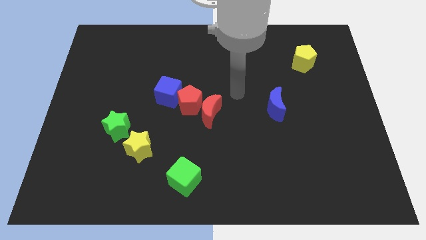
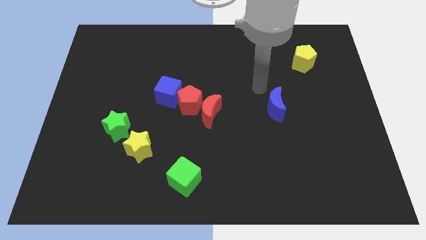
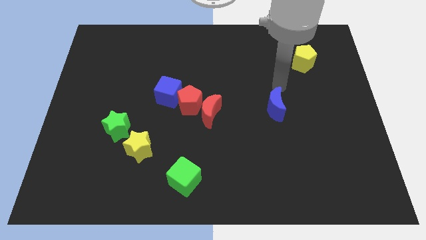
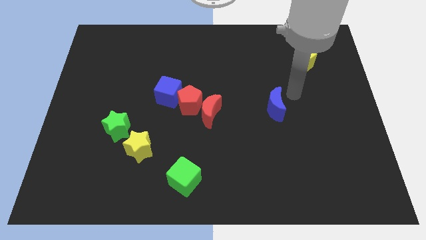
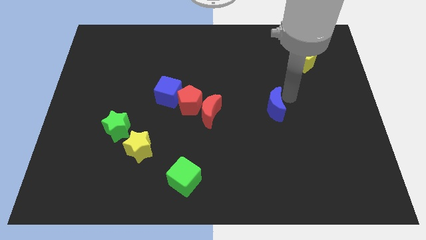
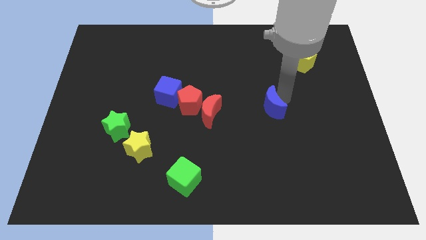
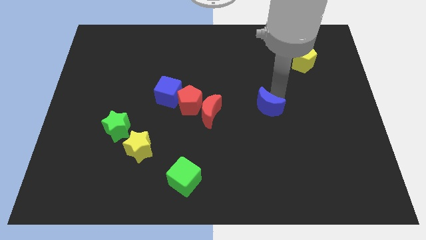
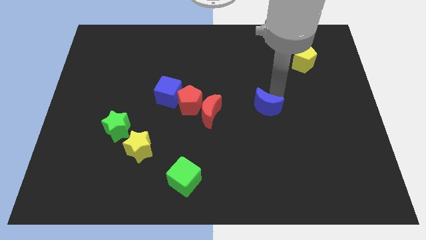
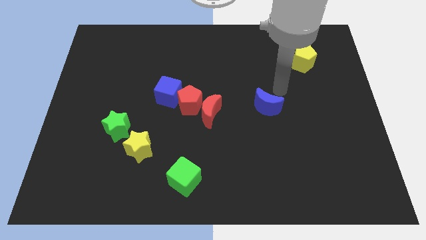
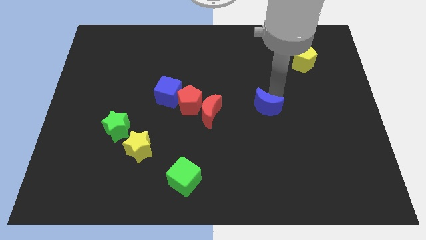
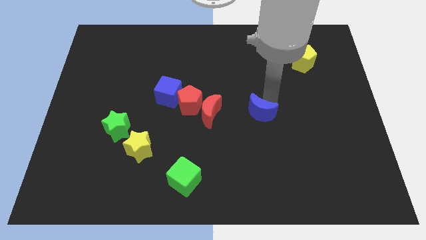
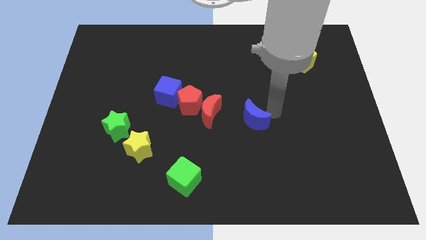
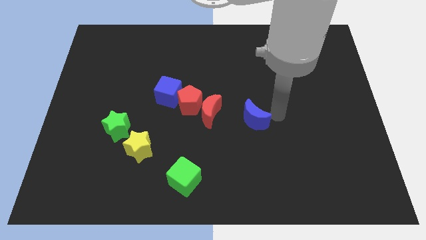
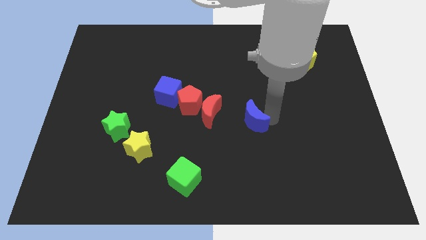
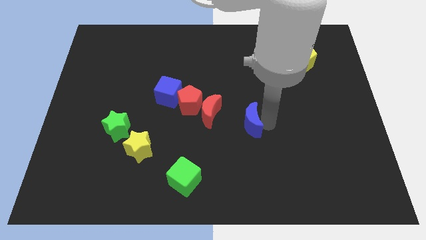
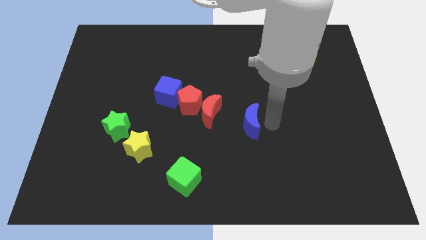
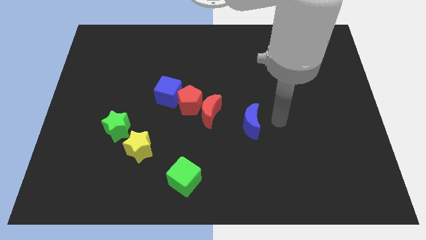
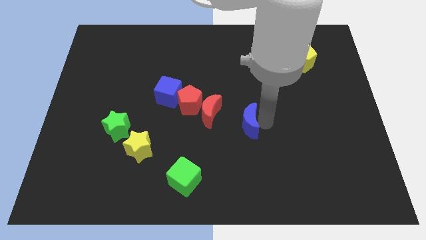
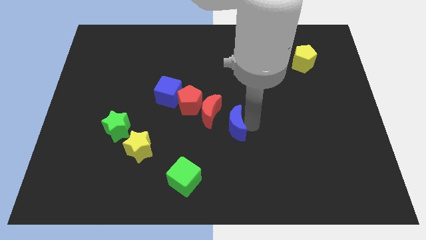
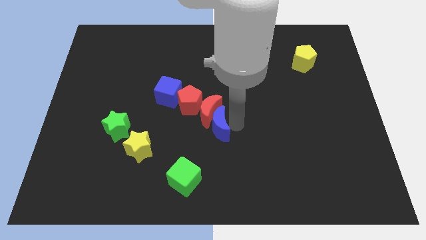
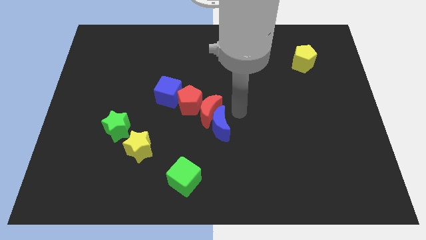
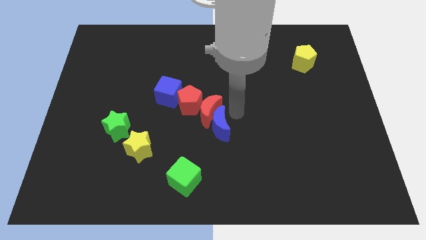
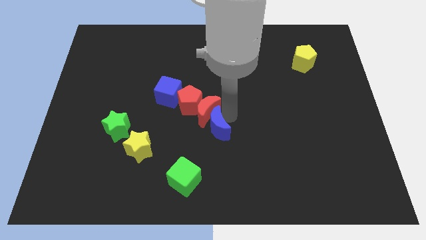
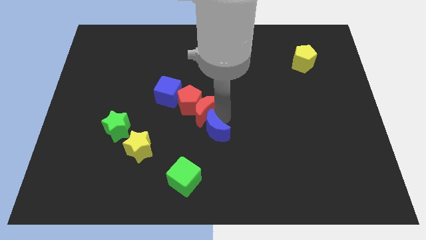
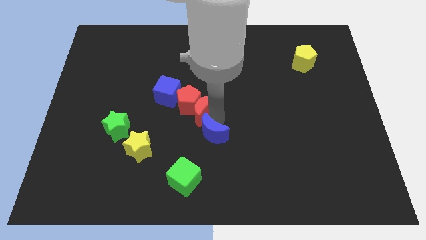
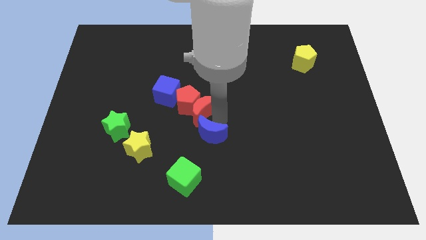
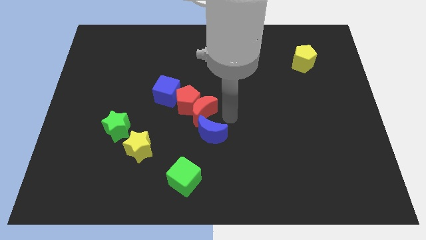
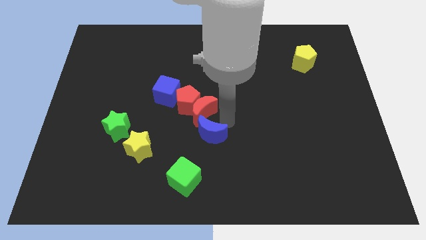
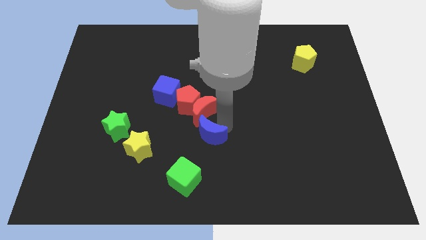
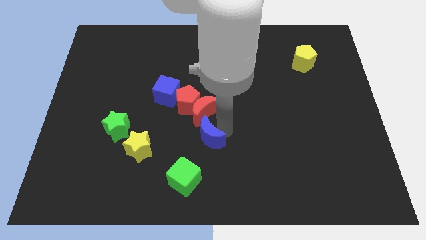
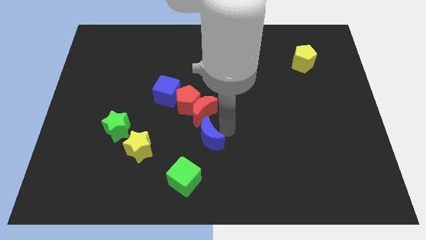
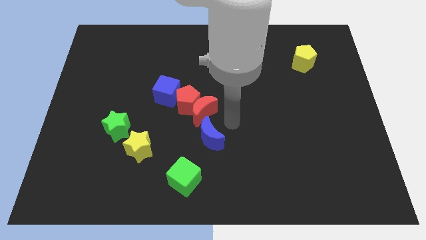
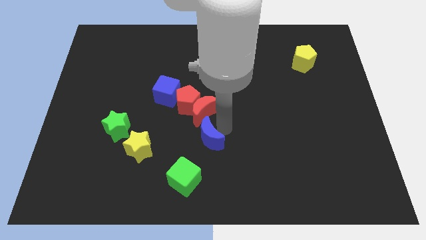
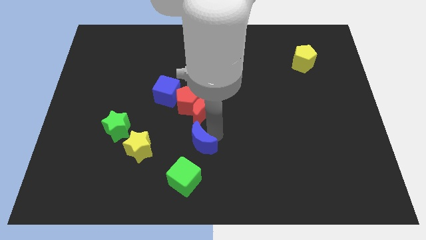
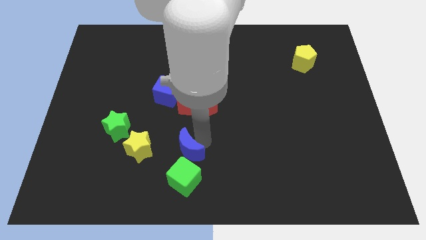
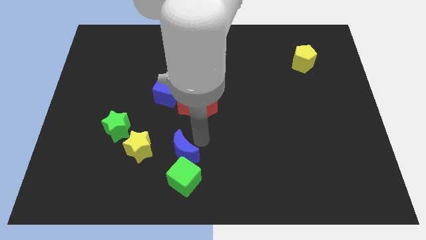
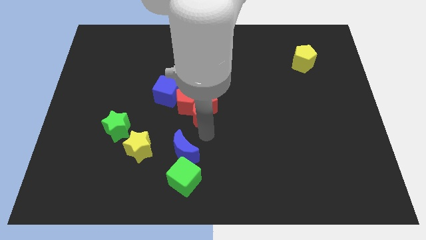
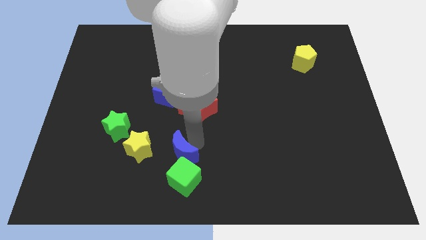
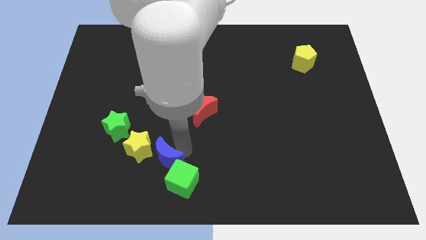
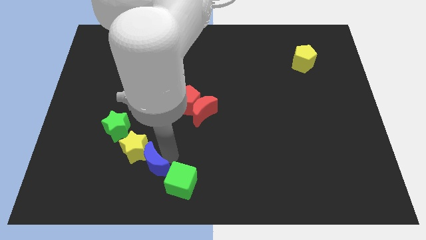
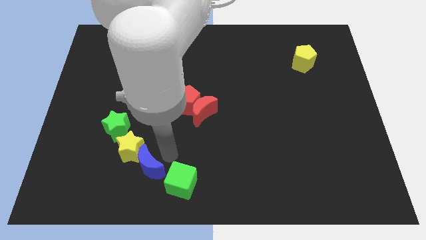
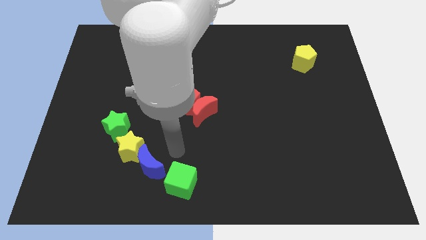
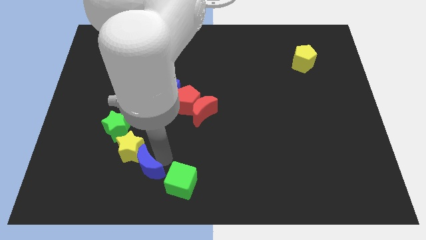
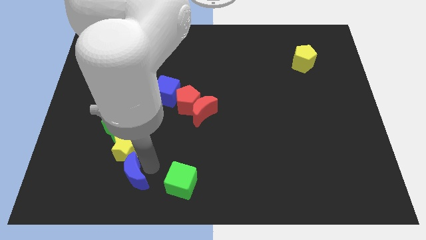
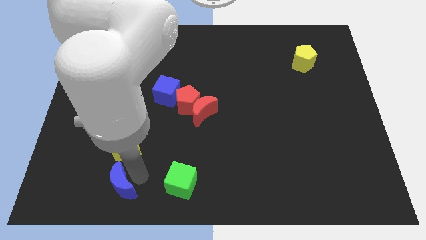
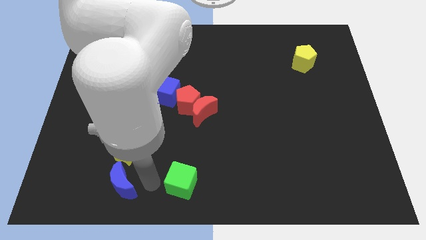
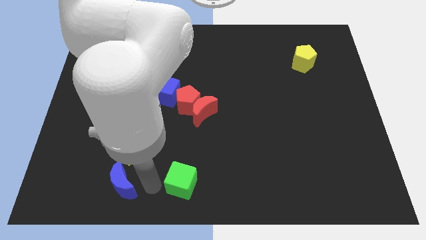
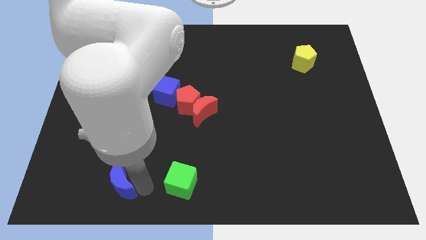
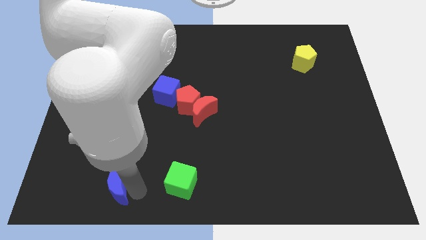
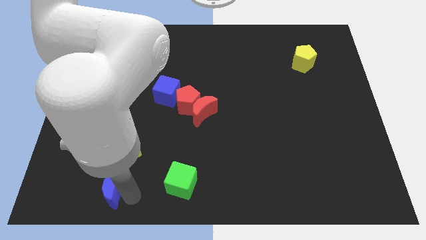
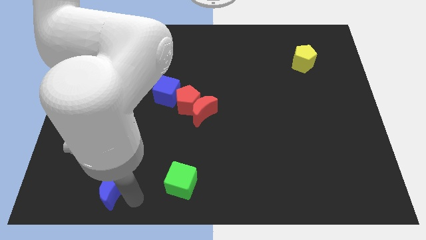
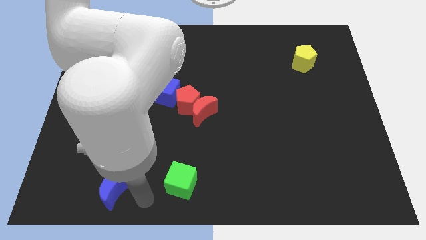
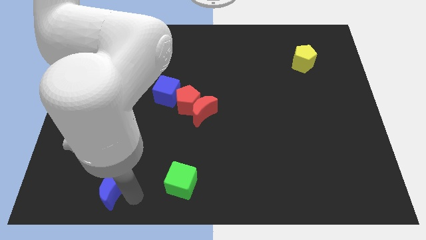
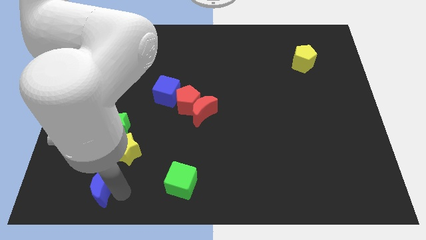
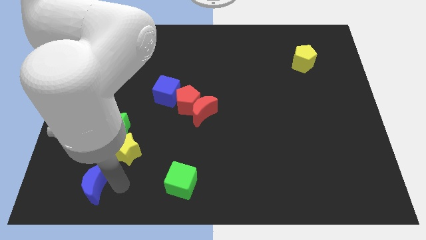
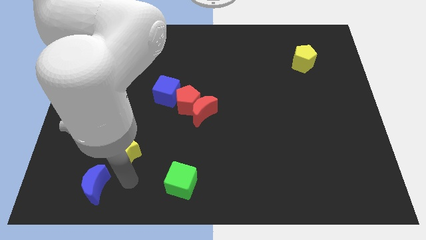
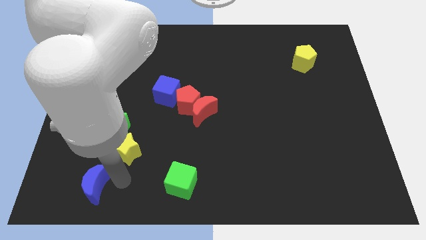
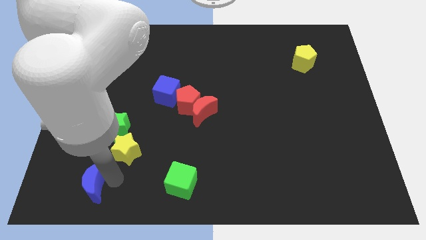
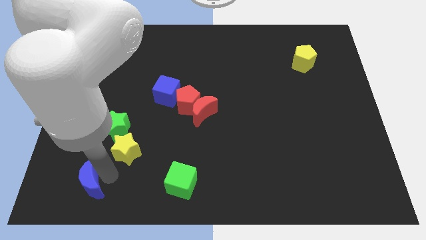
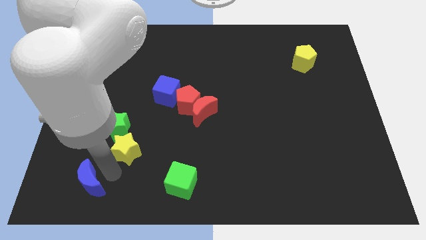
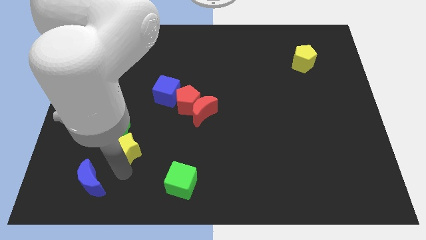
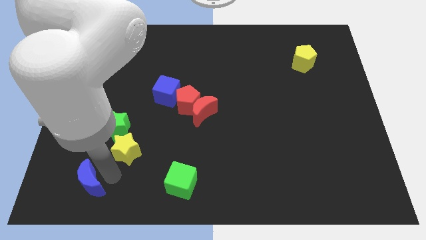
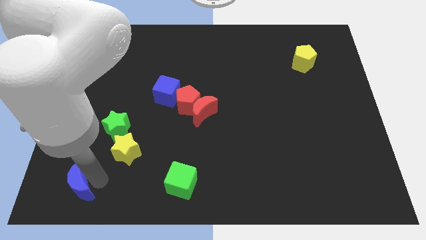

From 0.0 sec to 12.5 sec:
put the blue moon to the bottom left of the board

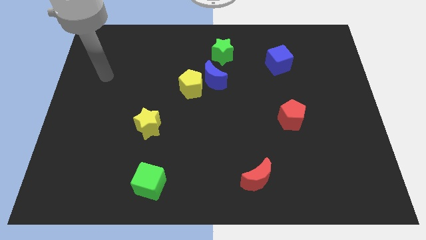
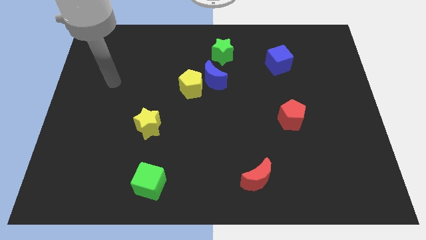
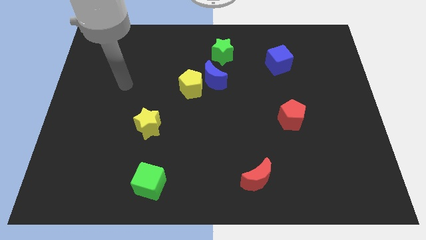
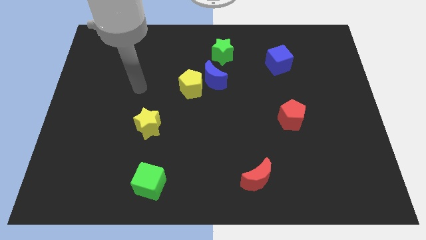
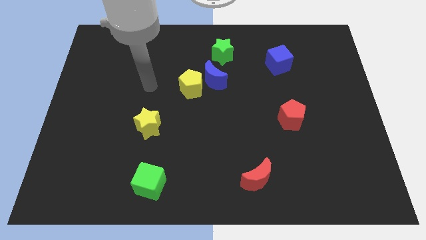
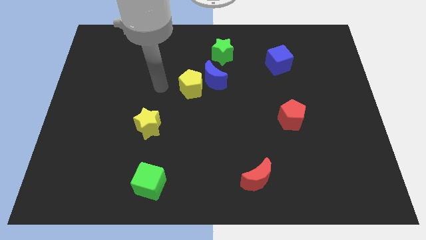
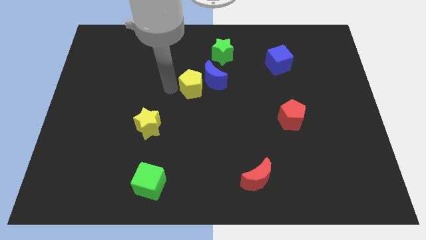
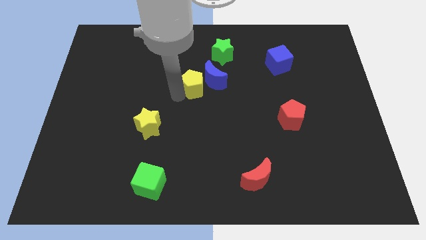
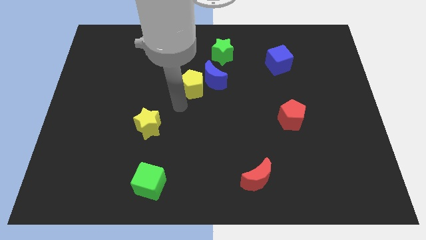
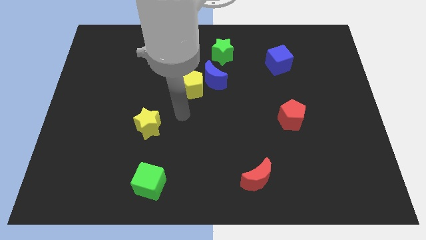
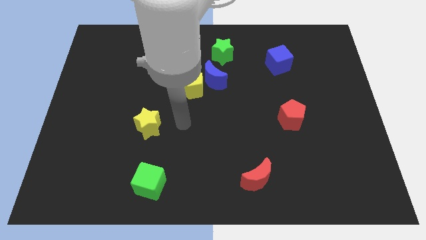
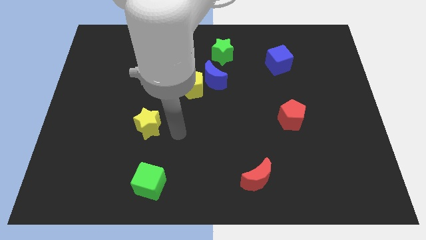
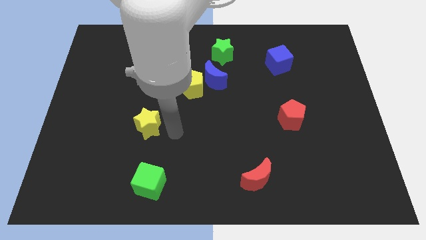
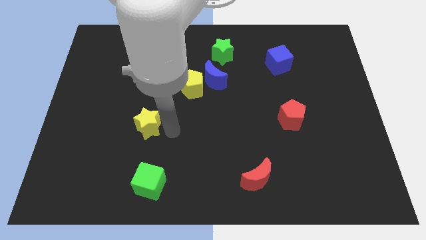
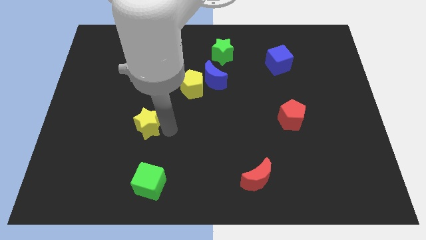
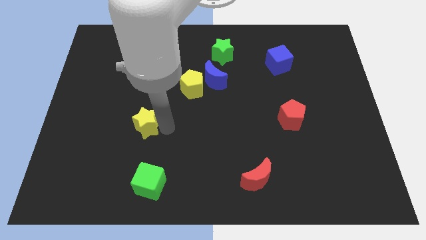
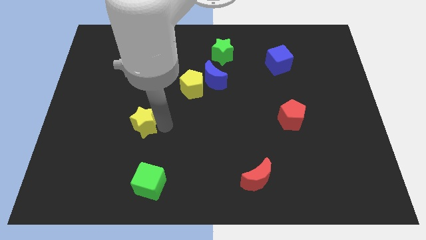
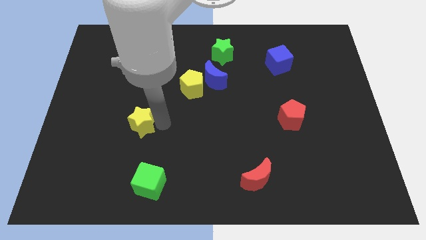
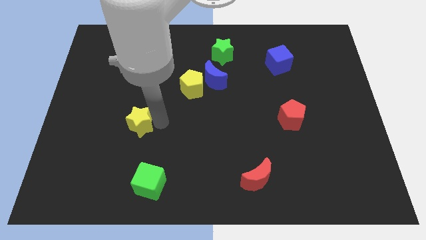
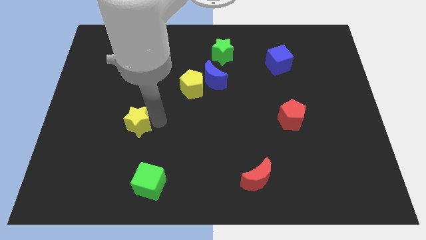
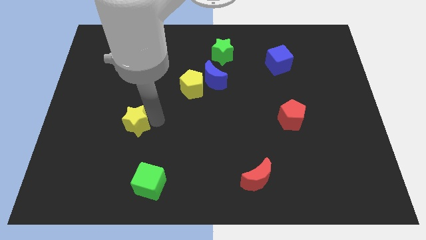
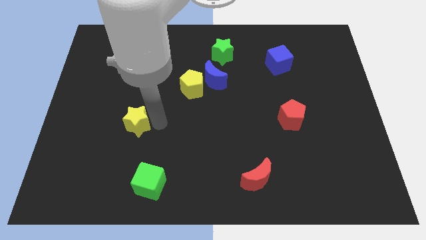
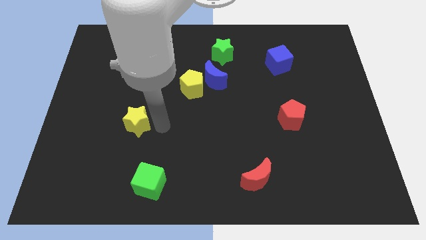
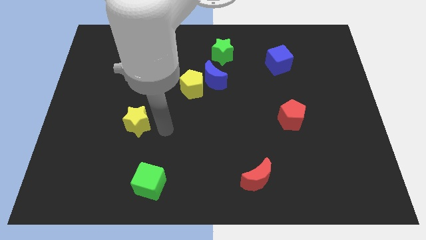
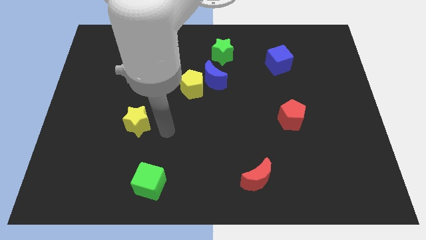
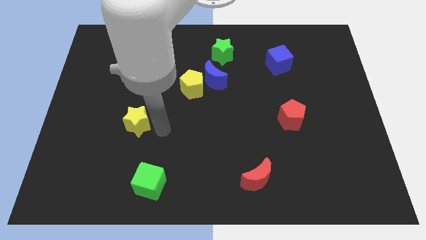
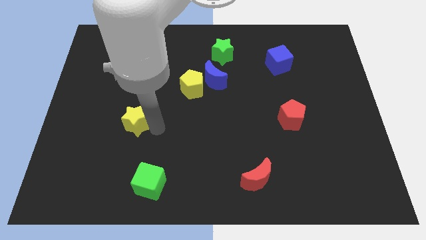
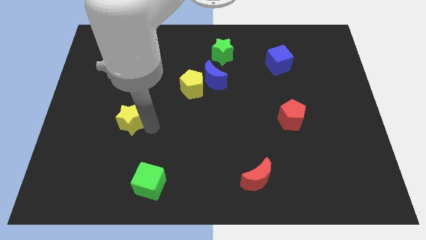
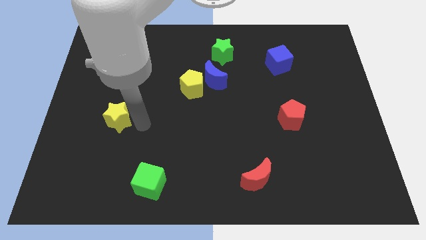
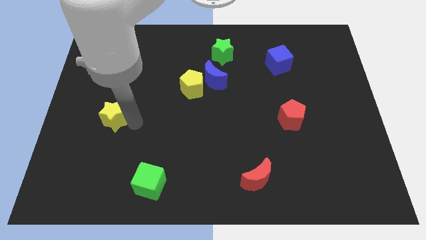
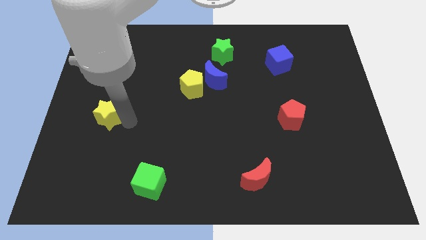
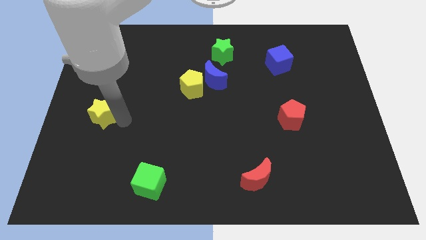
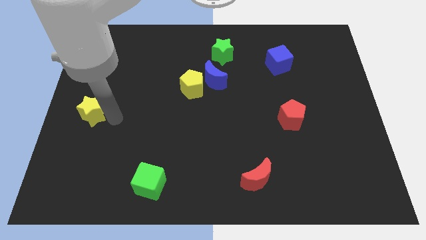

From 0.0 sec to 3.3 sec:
move the yellow star to the left side
